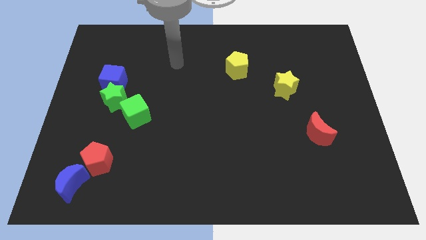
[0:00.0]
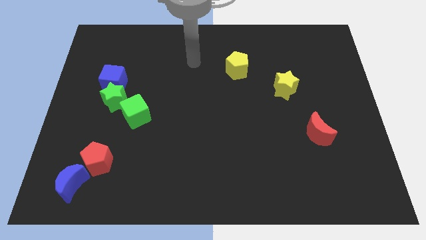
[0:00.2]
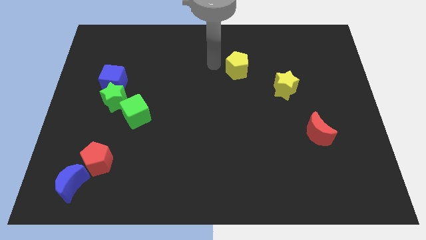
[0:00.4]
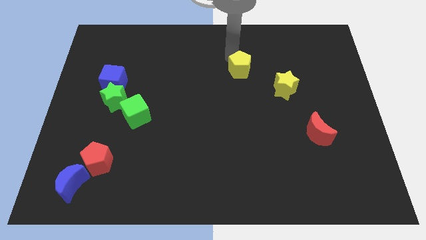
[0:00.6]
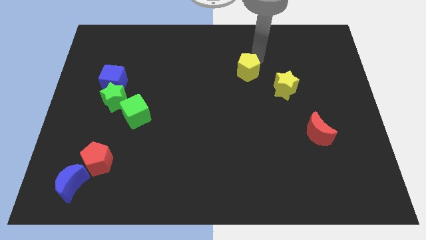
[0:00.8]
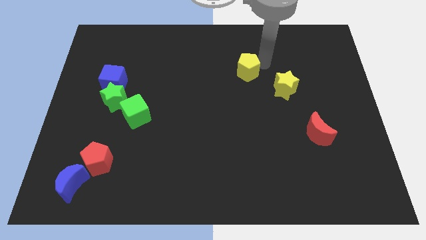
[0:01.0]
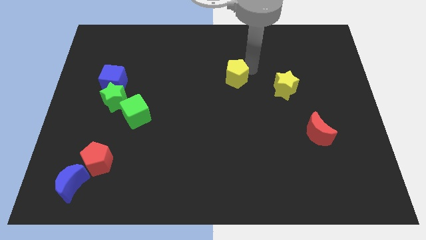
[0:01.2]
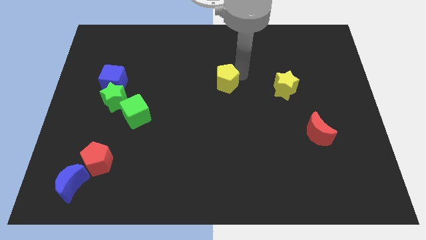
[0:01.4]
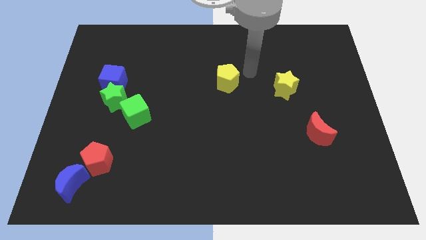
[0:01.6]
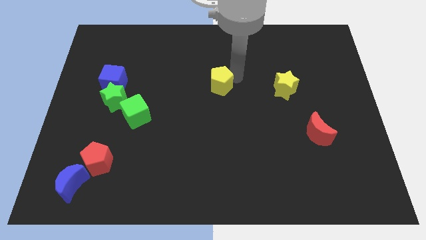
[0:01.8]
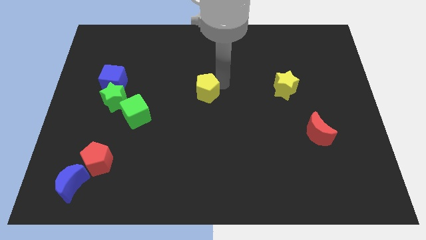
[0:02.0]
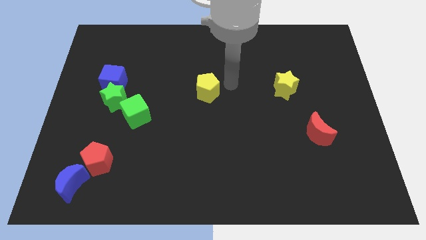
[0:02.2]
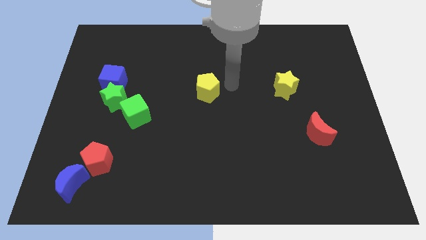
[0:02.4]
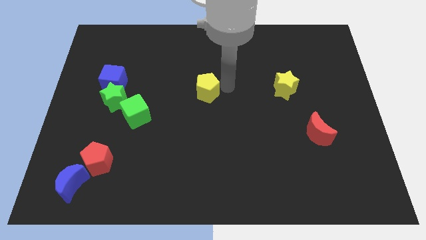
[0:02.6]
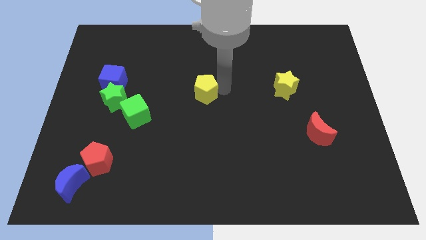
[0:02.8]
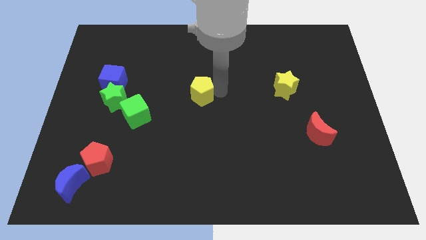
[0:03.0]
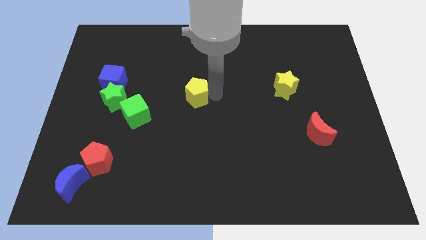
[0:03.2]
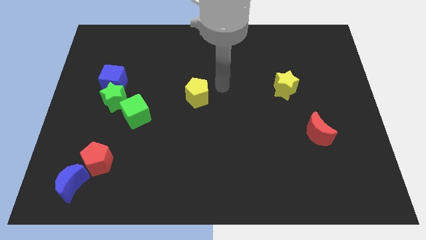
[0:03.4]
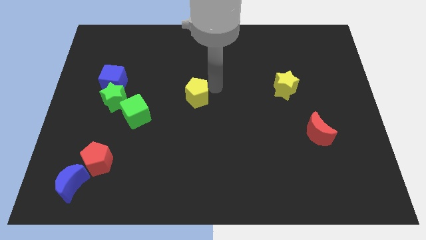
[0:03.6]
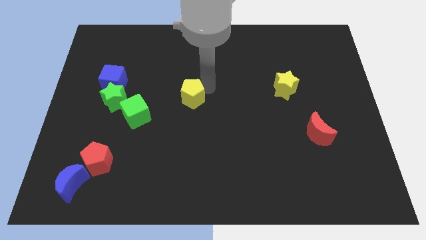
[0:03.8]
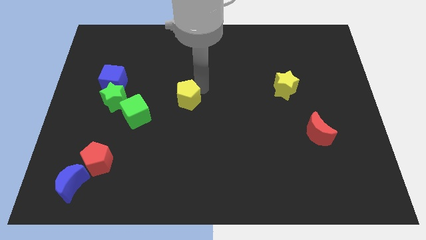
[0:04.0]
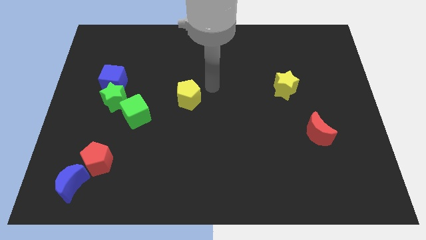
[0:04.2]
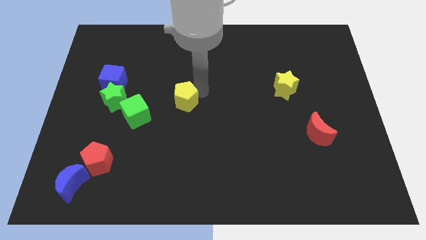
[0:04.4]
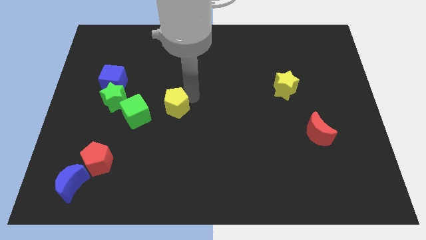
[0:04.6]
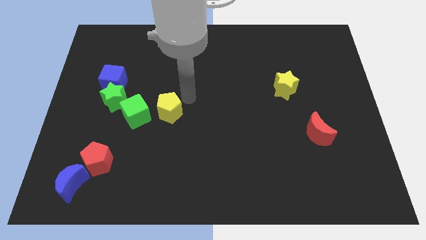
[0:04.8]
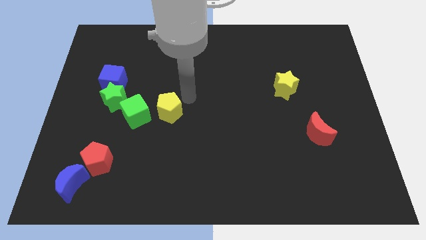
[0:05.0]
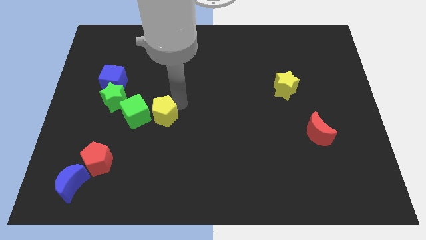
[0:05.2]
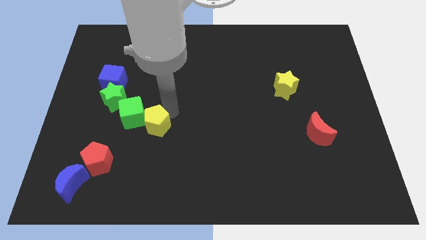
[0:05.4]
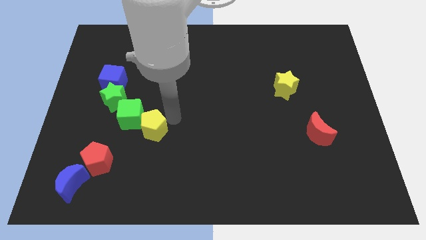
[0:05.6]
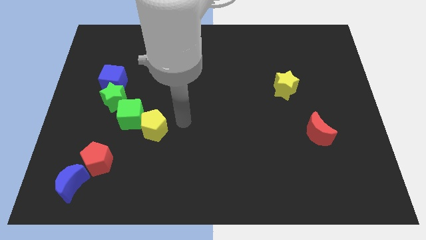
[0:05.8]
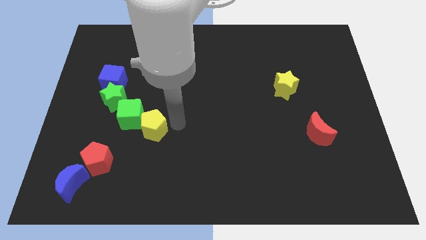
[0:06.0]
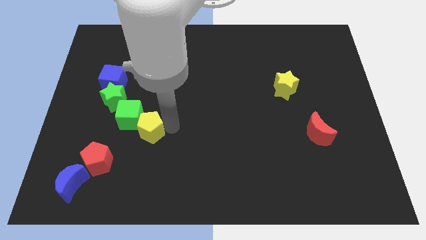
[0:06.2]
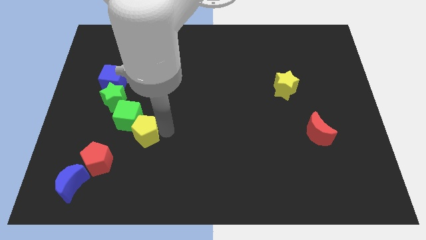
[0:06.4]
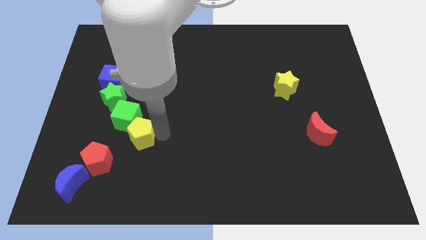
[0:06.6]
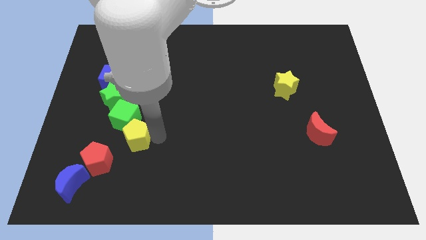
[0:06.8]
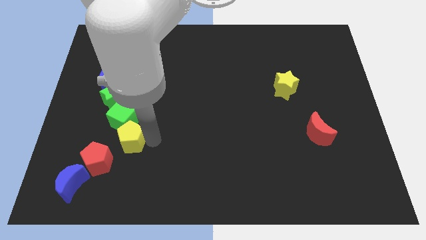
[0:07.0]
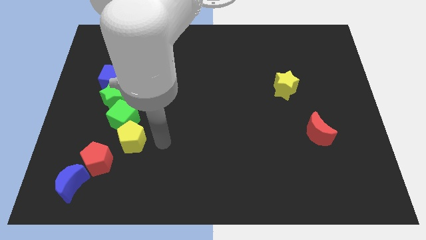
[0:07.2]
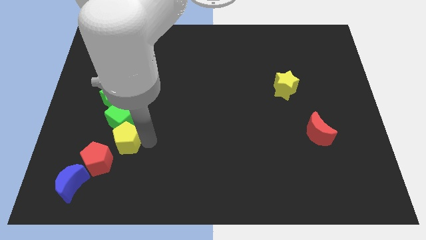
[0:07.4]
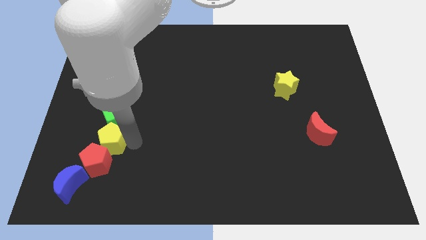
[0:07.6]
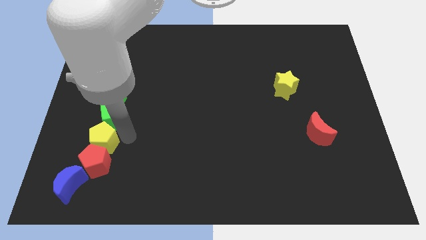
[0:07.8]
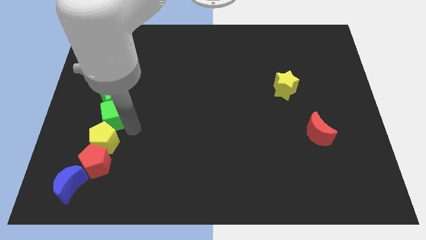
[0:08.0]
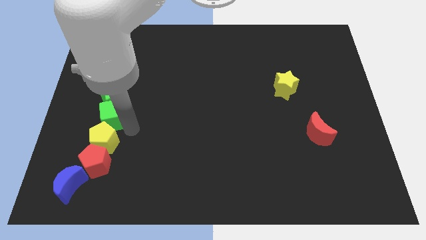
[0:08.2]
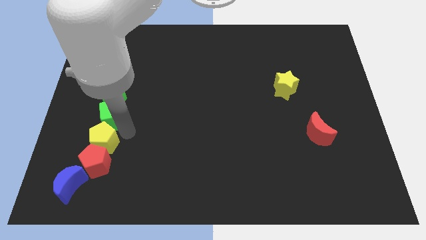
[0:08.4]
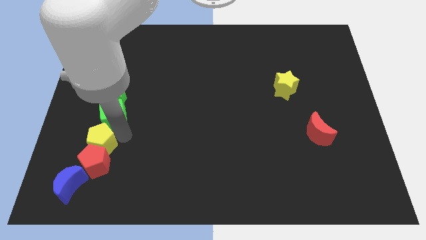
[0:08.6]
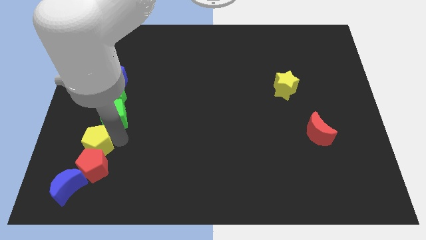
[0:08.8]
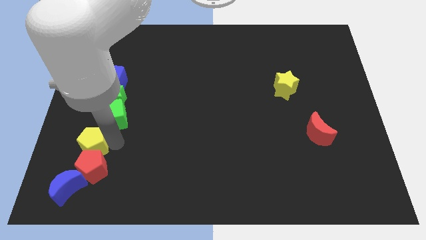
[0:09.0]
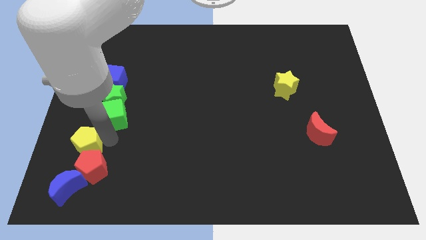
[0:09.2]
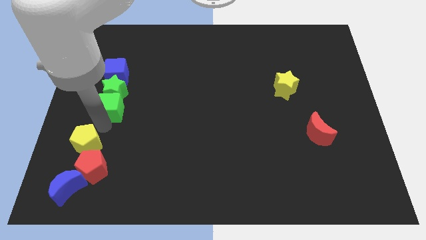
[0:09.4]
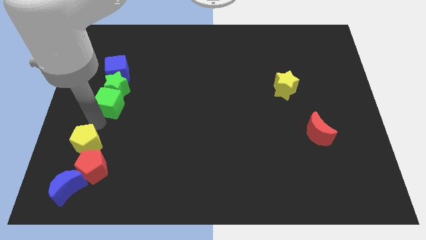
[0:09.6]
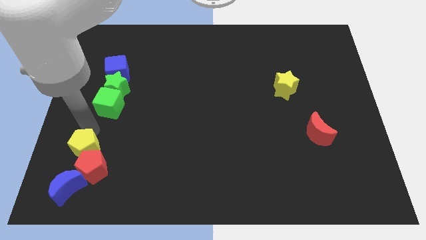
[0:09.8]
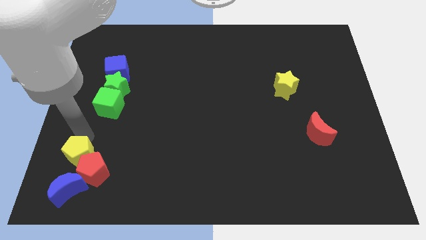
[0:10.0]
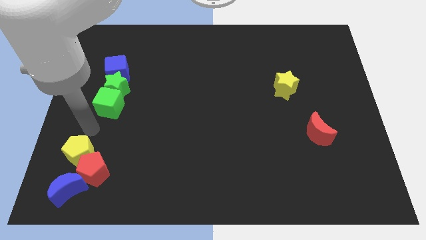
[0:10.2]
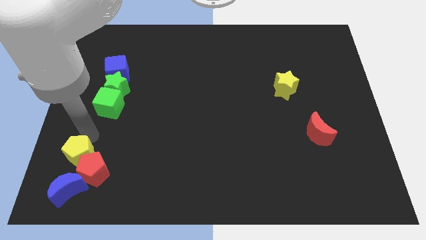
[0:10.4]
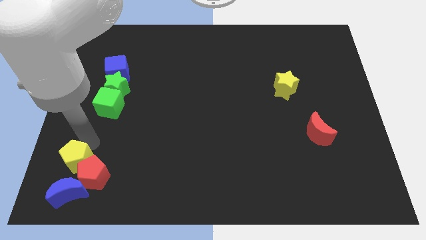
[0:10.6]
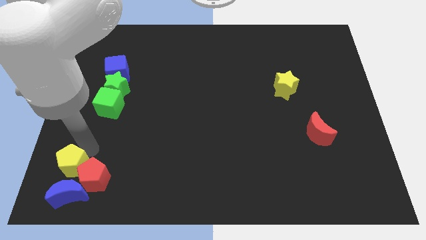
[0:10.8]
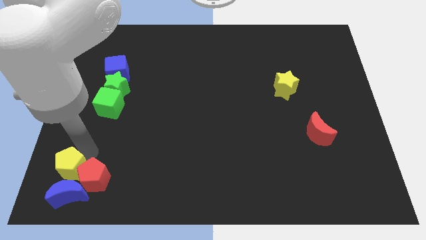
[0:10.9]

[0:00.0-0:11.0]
push the yellow pentagon to the blue moon

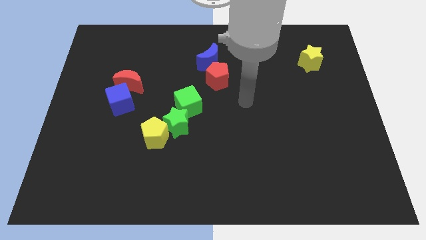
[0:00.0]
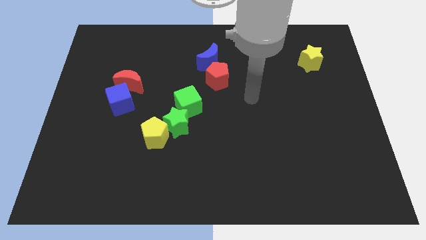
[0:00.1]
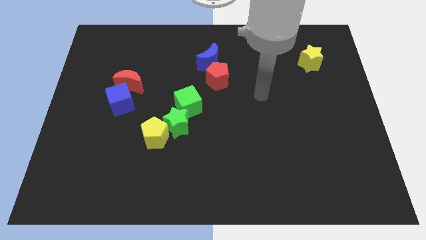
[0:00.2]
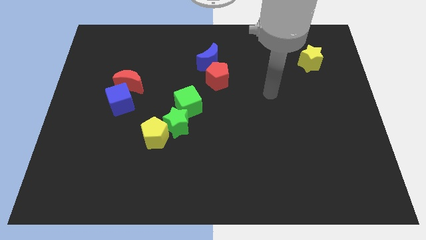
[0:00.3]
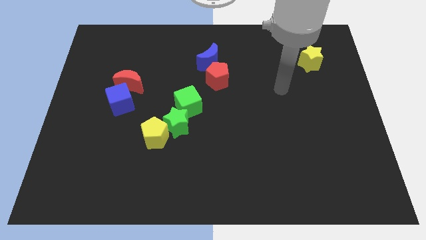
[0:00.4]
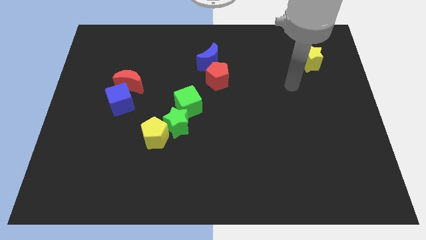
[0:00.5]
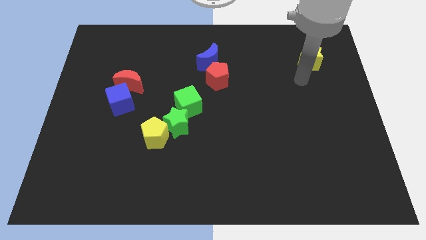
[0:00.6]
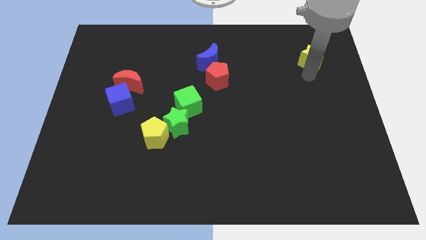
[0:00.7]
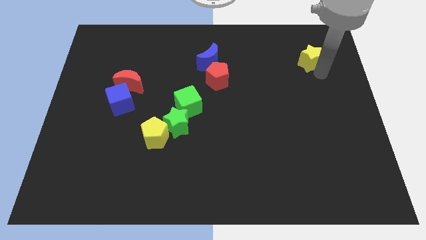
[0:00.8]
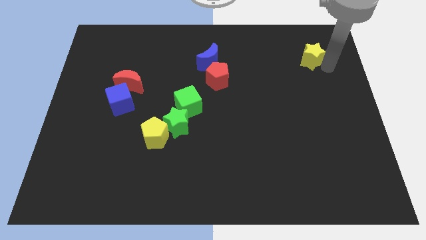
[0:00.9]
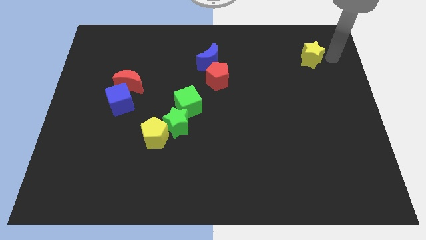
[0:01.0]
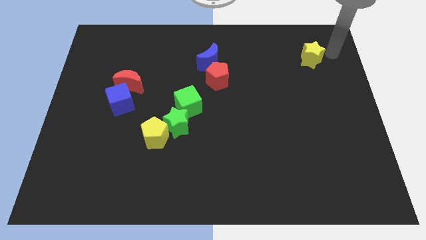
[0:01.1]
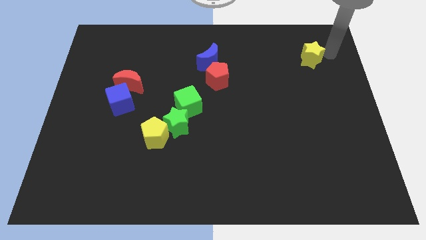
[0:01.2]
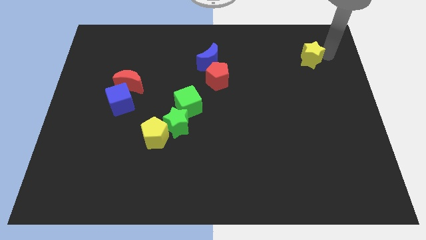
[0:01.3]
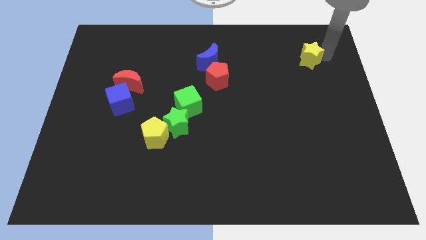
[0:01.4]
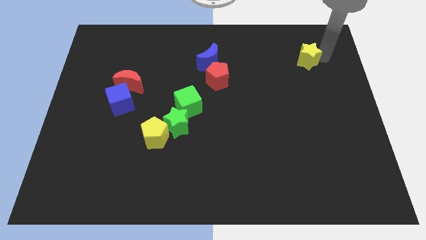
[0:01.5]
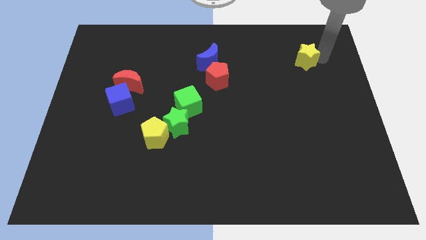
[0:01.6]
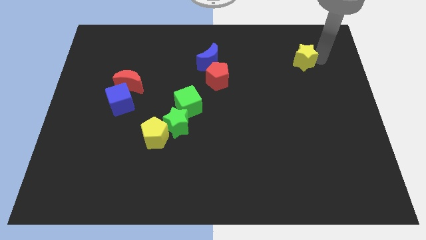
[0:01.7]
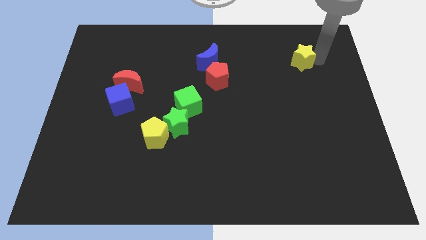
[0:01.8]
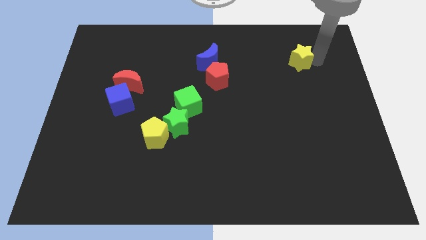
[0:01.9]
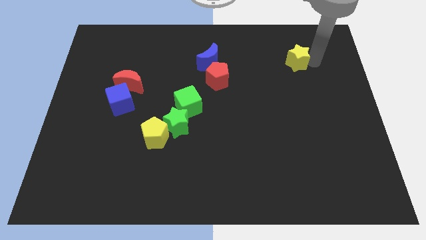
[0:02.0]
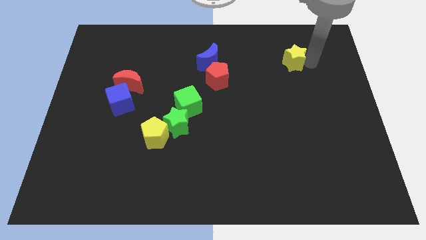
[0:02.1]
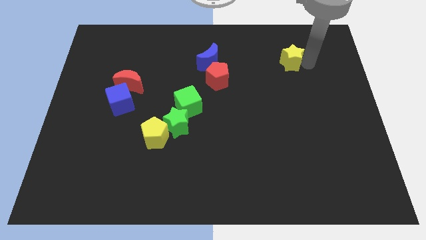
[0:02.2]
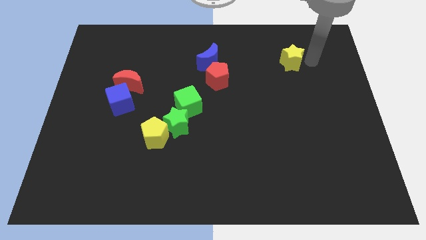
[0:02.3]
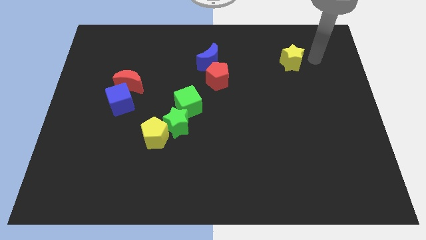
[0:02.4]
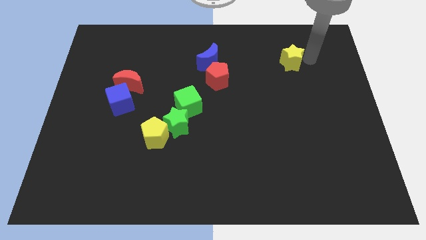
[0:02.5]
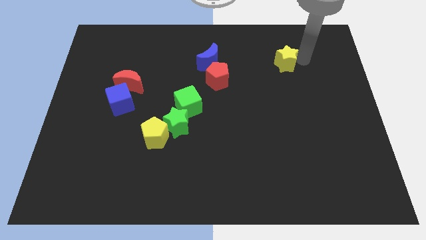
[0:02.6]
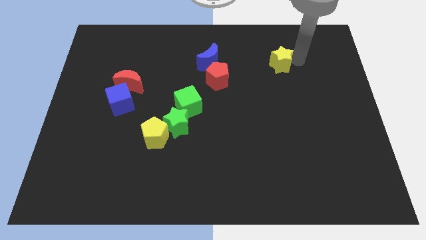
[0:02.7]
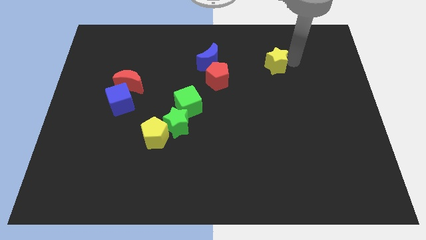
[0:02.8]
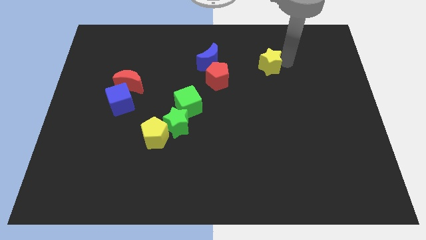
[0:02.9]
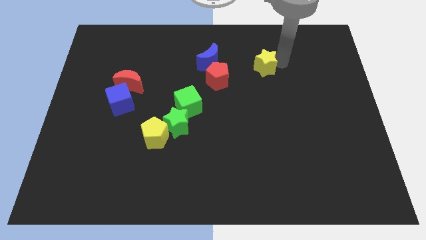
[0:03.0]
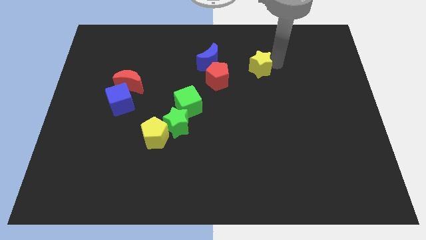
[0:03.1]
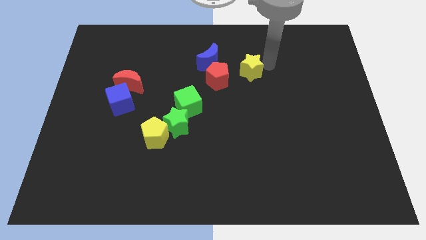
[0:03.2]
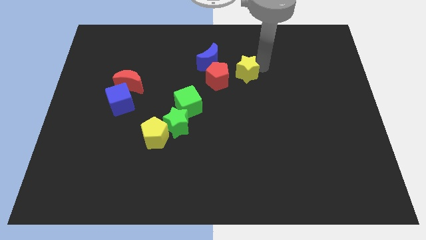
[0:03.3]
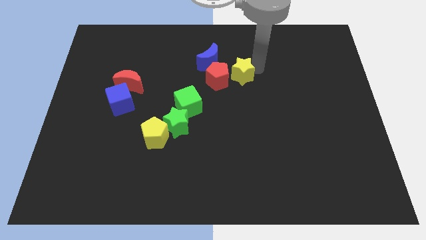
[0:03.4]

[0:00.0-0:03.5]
move the yellow star towards the red pentagon
